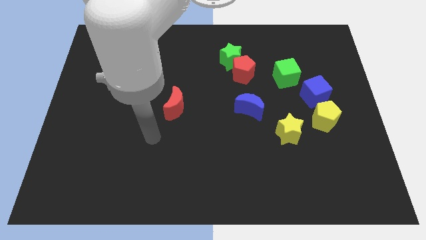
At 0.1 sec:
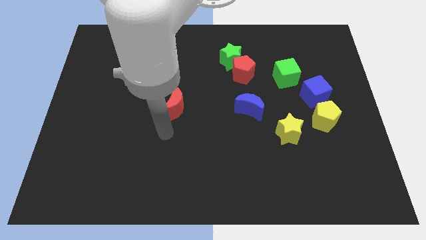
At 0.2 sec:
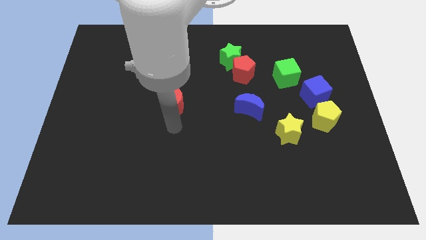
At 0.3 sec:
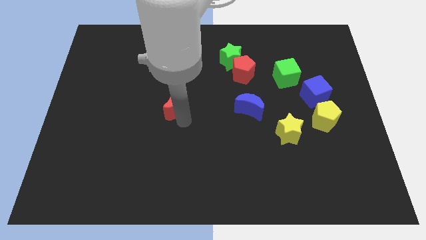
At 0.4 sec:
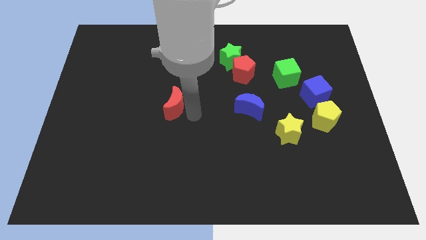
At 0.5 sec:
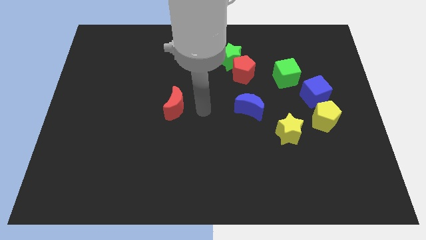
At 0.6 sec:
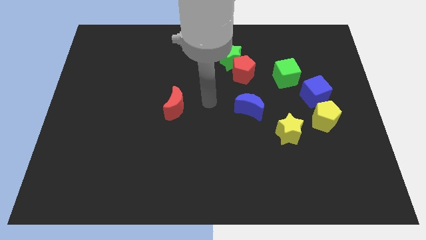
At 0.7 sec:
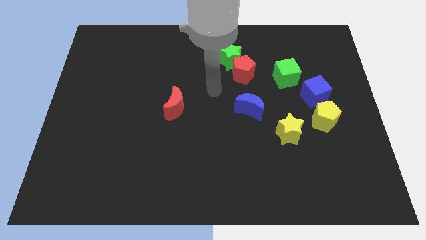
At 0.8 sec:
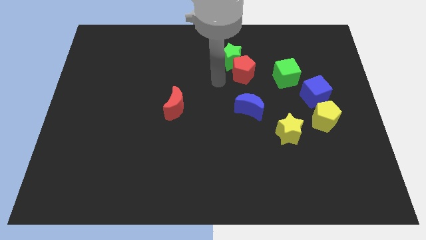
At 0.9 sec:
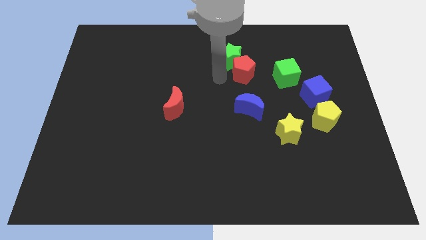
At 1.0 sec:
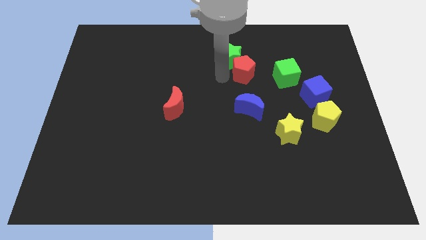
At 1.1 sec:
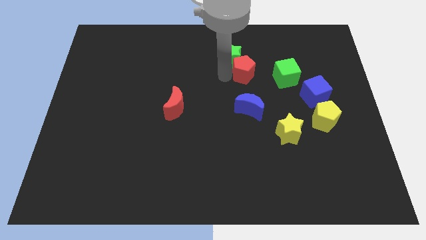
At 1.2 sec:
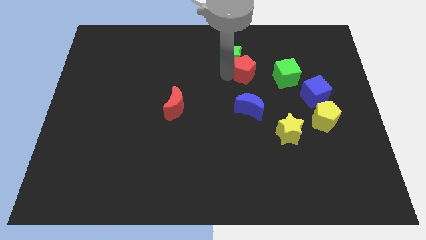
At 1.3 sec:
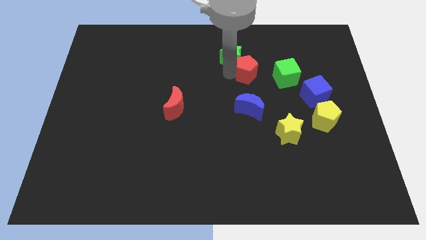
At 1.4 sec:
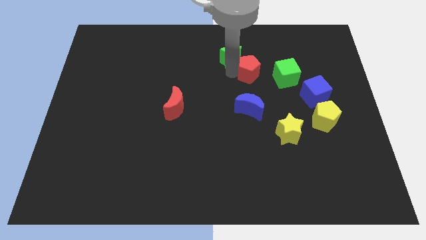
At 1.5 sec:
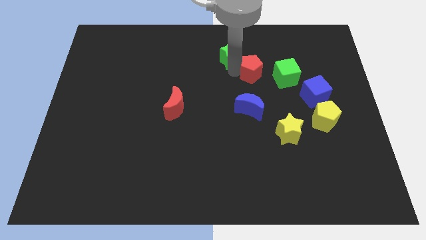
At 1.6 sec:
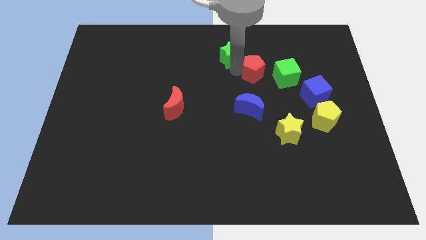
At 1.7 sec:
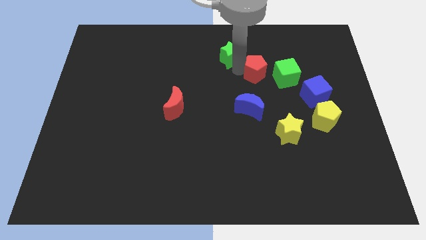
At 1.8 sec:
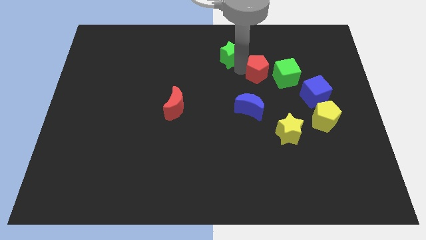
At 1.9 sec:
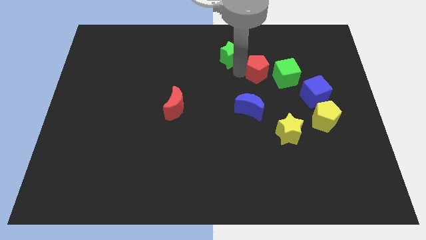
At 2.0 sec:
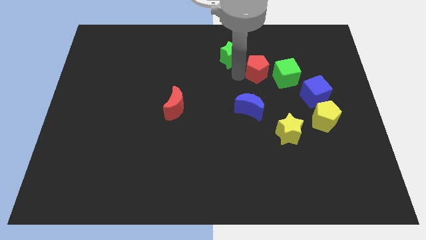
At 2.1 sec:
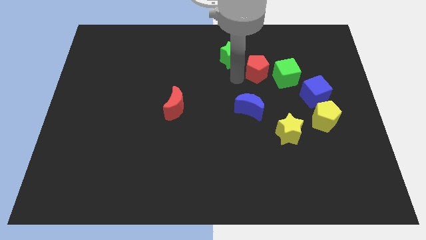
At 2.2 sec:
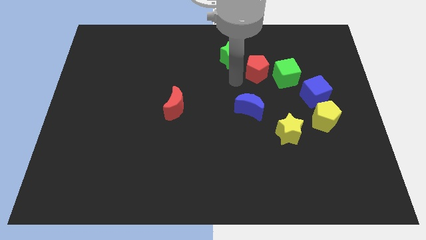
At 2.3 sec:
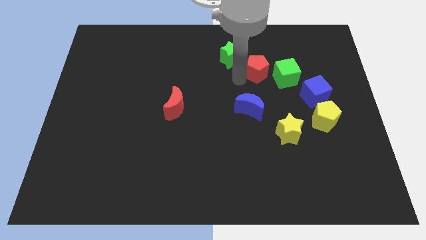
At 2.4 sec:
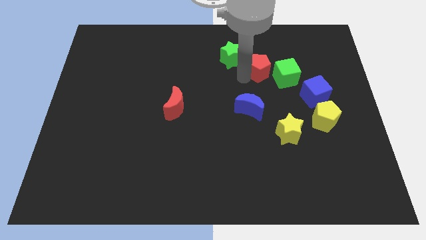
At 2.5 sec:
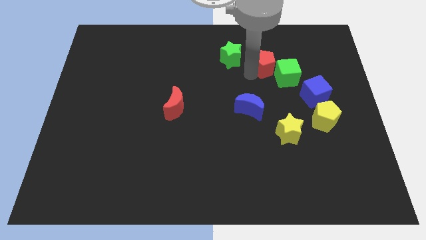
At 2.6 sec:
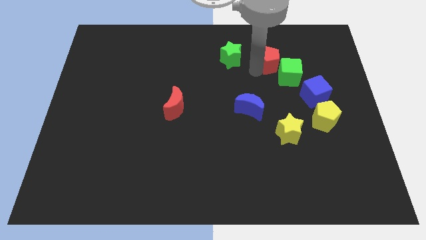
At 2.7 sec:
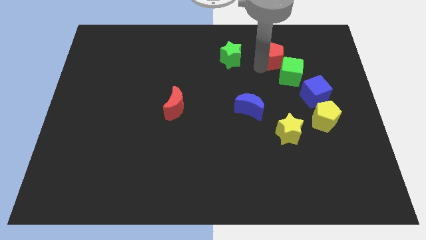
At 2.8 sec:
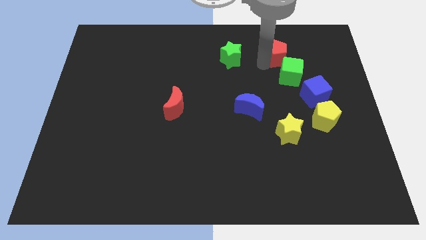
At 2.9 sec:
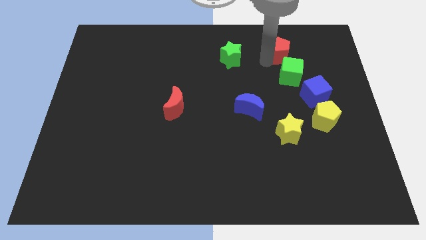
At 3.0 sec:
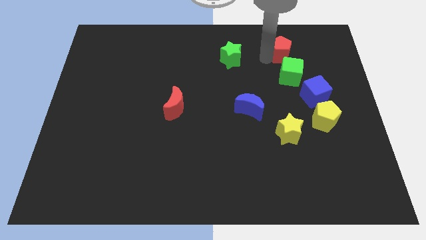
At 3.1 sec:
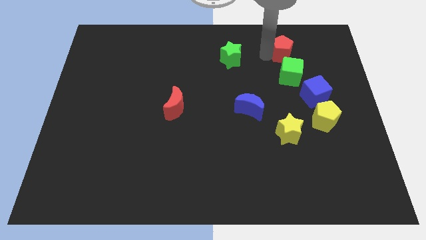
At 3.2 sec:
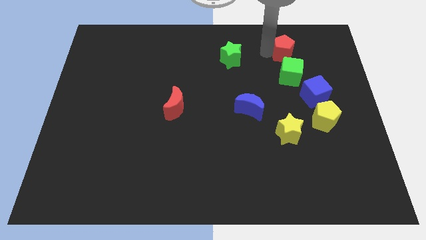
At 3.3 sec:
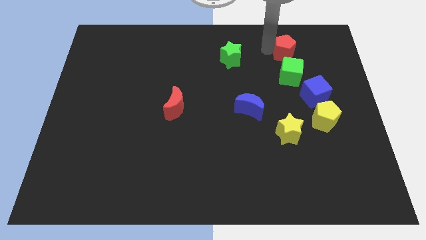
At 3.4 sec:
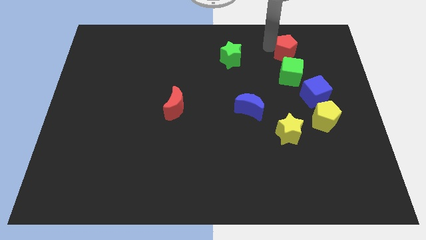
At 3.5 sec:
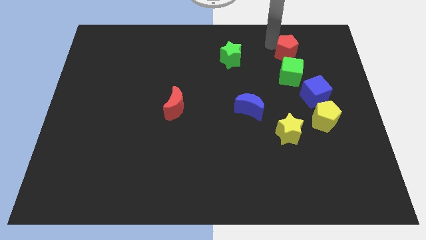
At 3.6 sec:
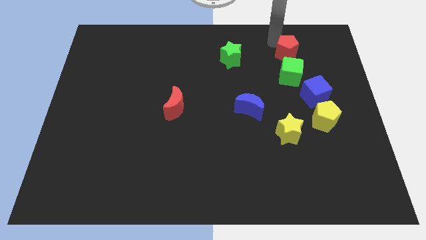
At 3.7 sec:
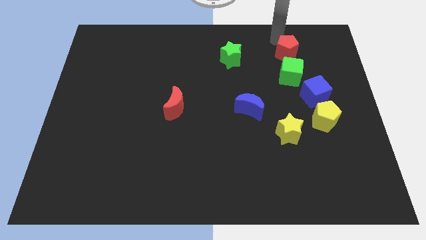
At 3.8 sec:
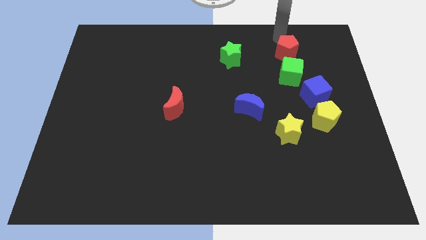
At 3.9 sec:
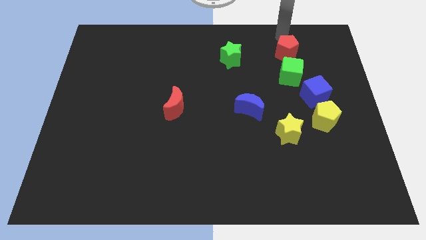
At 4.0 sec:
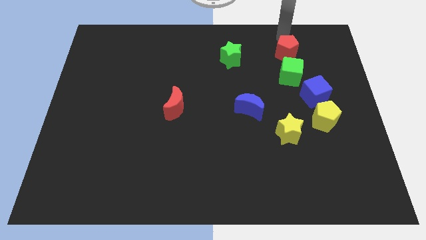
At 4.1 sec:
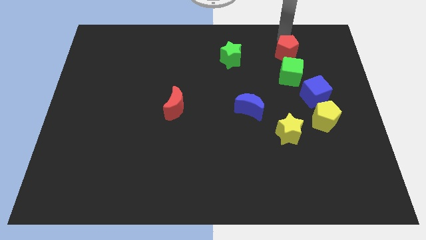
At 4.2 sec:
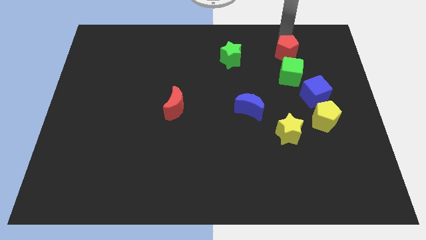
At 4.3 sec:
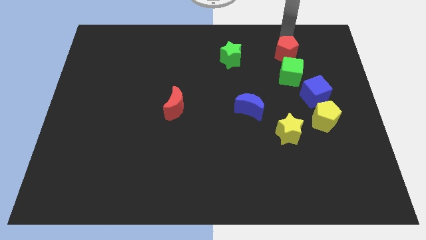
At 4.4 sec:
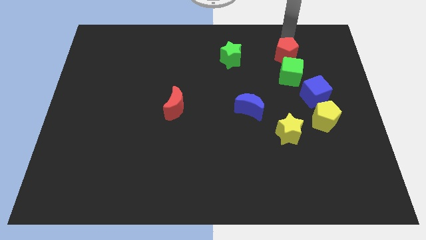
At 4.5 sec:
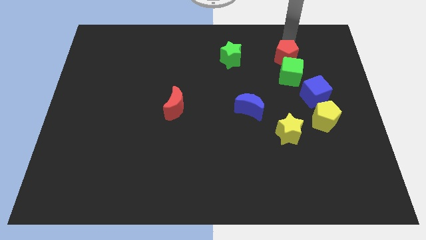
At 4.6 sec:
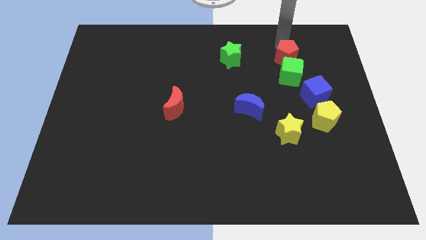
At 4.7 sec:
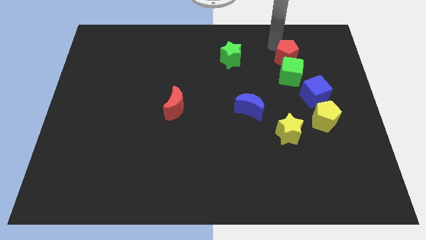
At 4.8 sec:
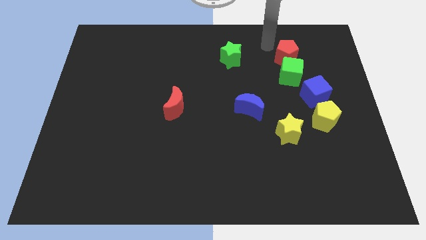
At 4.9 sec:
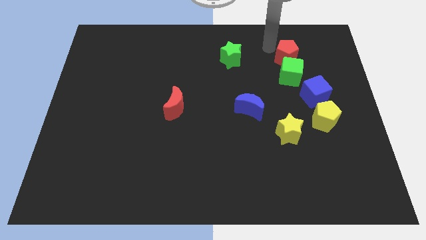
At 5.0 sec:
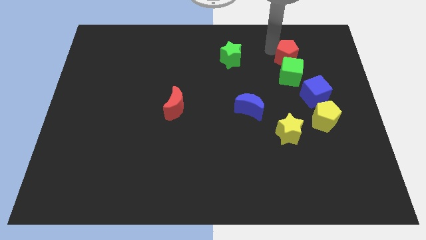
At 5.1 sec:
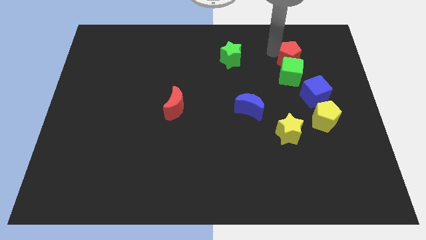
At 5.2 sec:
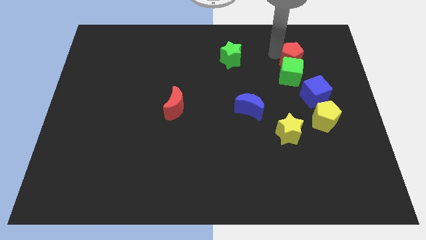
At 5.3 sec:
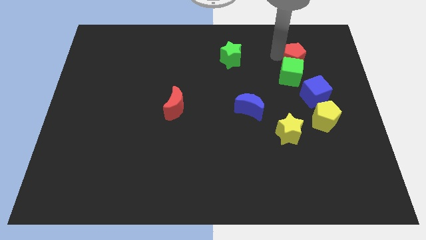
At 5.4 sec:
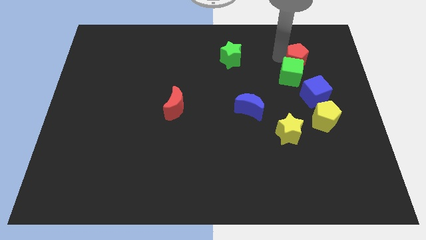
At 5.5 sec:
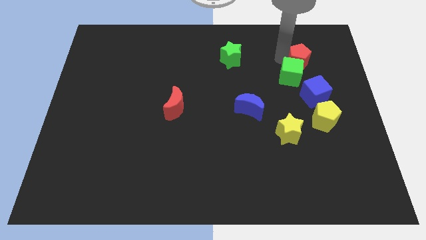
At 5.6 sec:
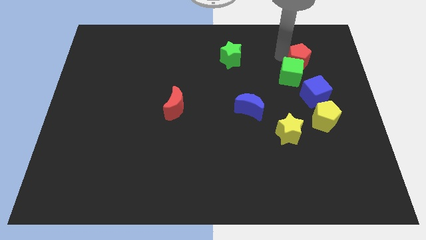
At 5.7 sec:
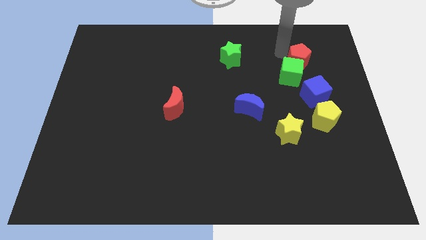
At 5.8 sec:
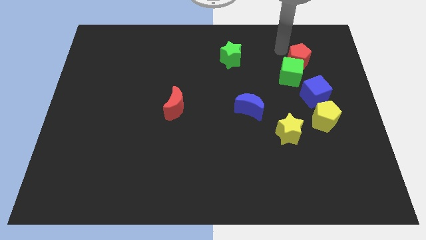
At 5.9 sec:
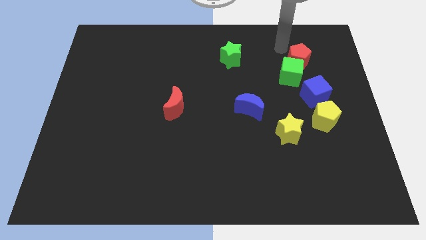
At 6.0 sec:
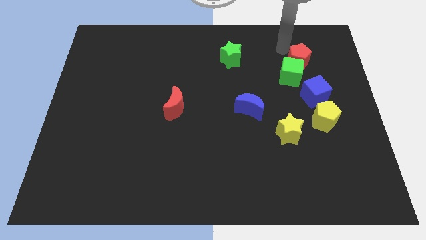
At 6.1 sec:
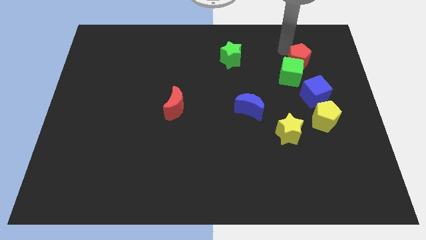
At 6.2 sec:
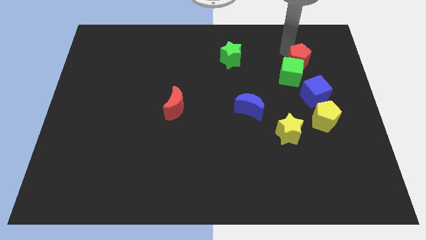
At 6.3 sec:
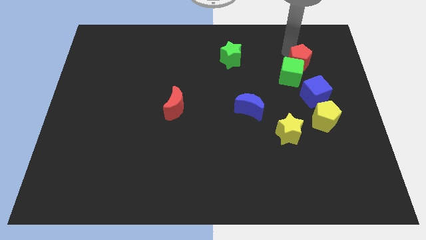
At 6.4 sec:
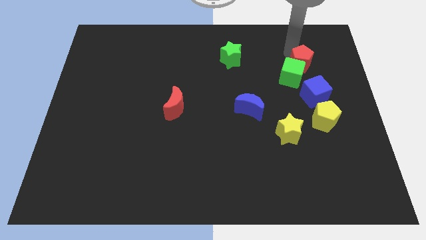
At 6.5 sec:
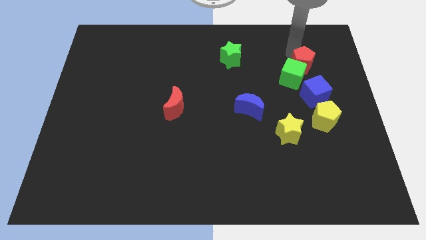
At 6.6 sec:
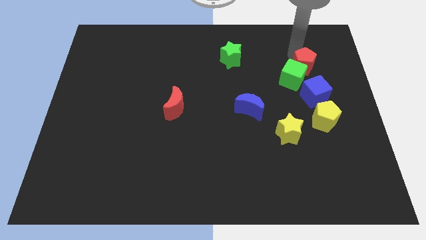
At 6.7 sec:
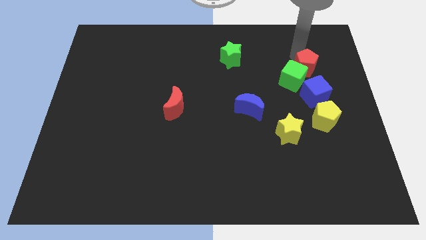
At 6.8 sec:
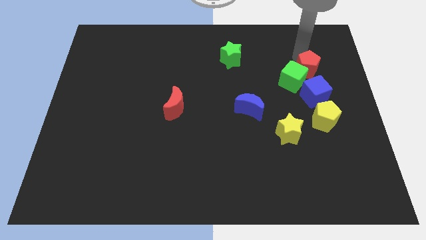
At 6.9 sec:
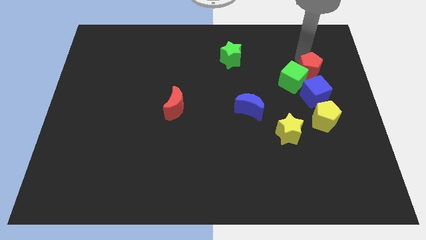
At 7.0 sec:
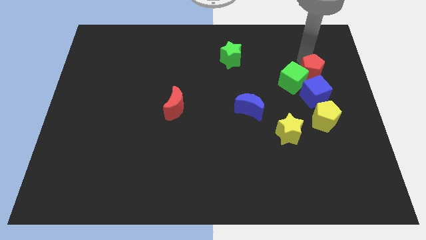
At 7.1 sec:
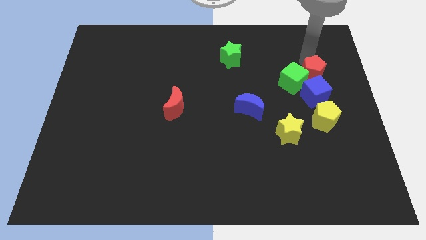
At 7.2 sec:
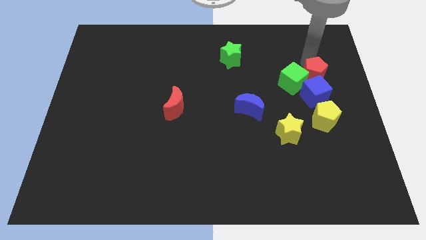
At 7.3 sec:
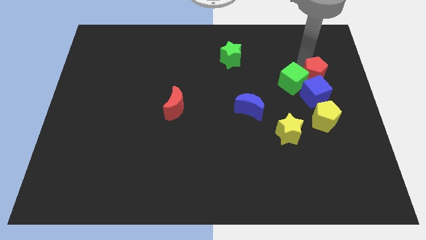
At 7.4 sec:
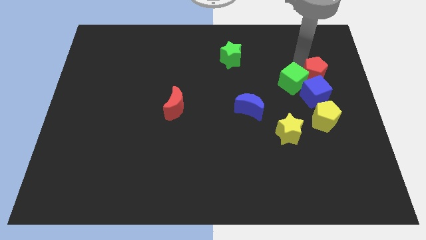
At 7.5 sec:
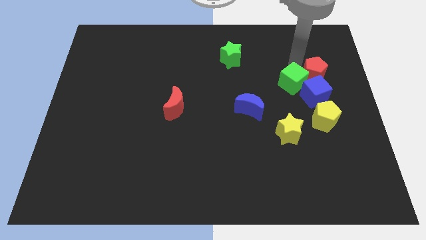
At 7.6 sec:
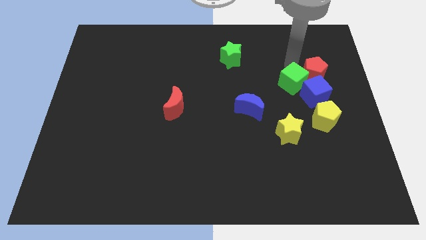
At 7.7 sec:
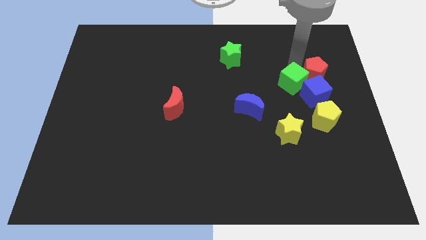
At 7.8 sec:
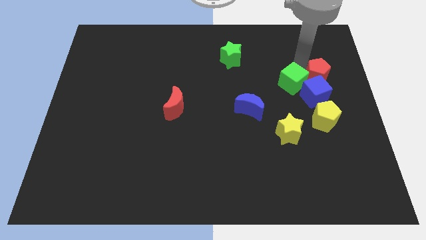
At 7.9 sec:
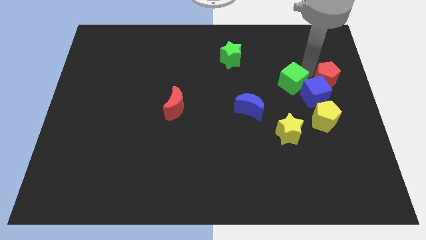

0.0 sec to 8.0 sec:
move the red pentagon to the right side
